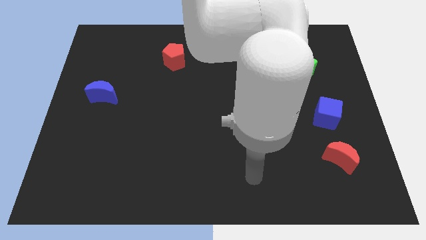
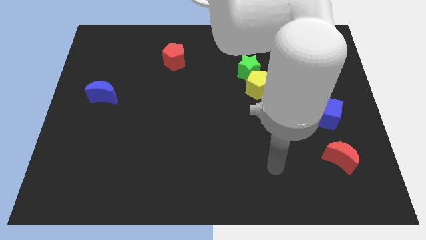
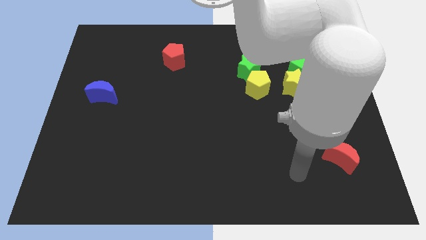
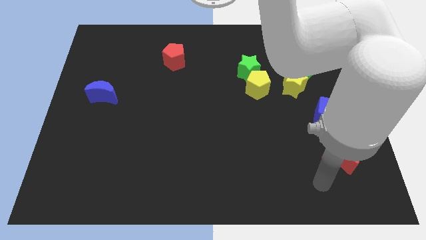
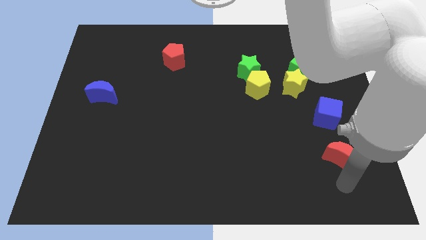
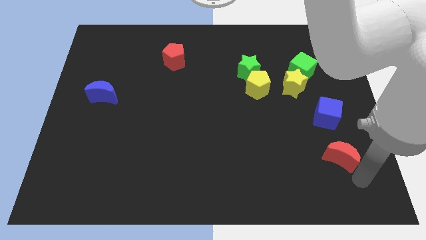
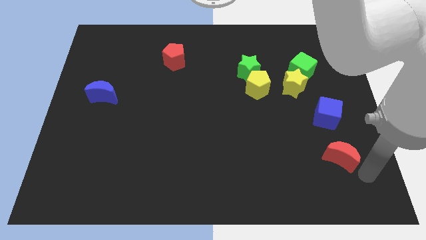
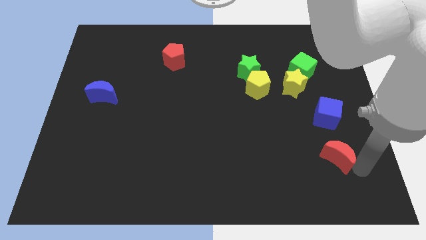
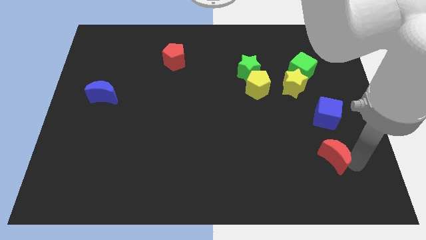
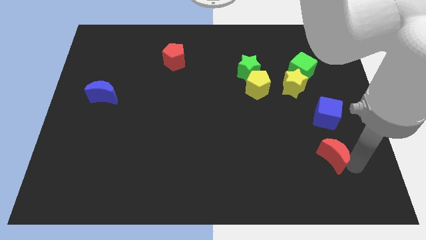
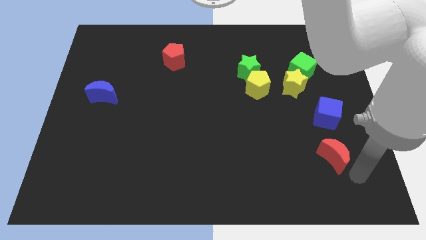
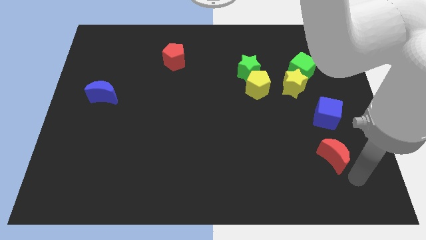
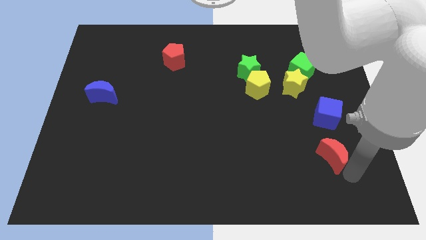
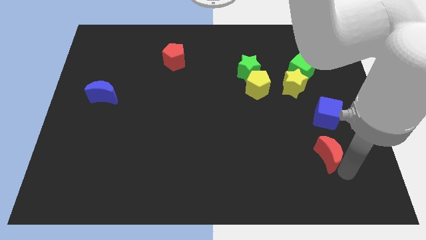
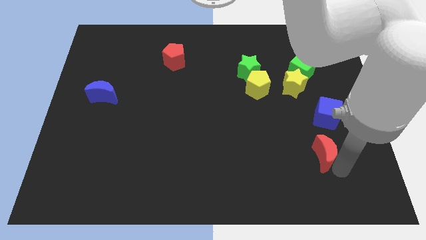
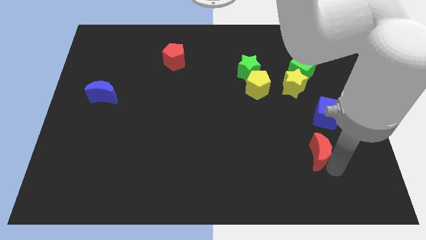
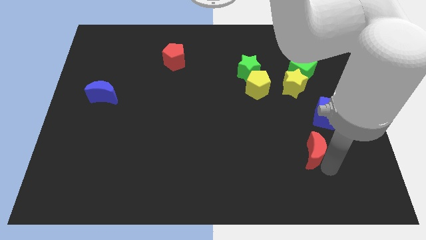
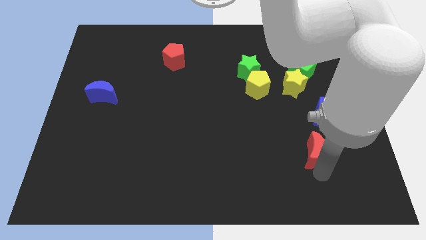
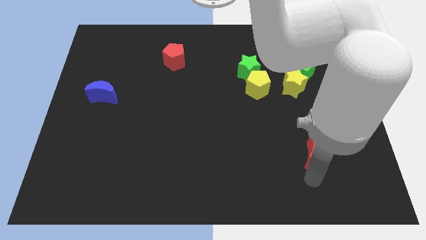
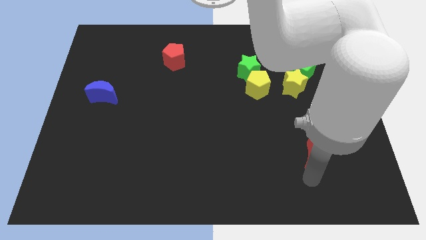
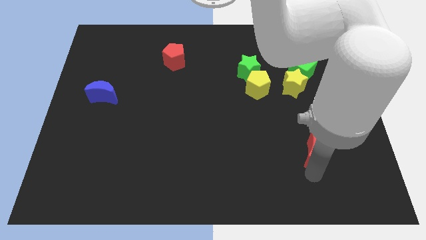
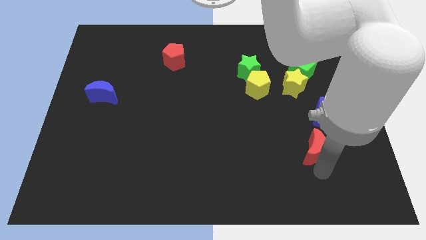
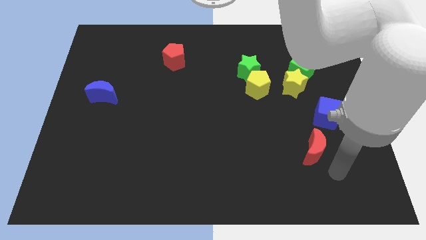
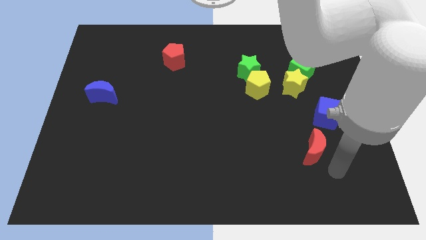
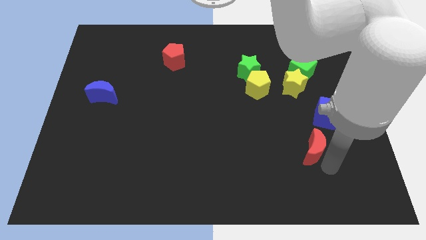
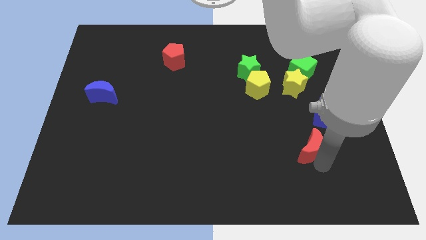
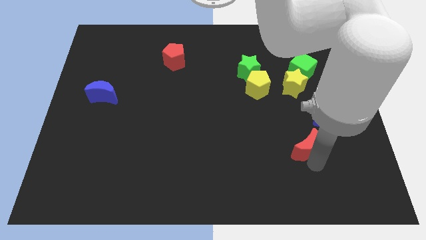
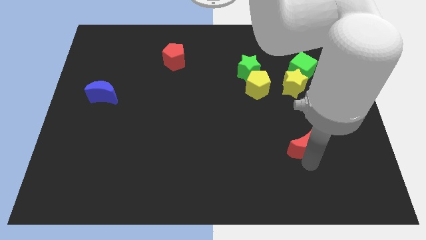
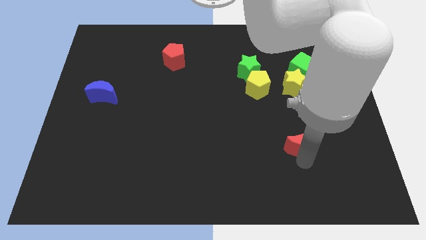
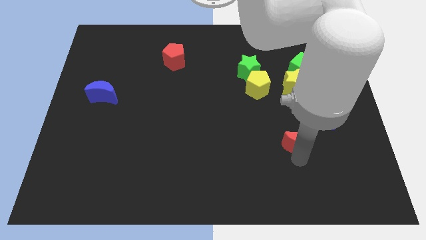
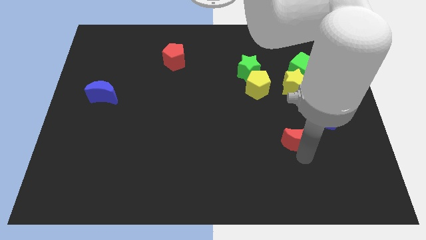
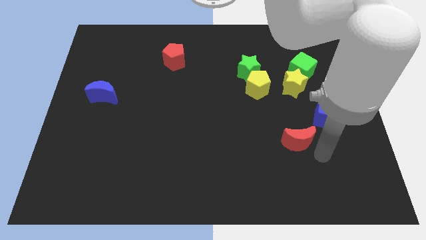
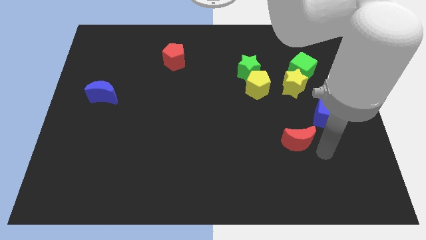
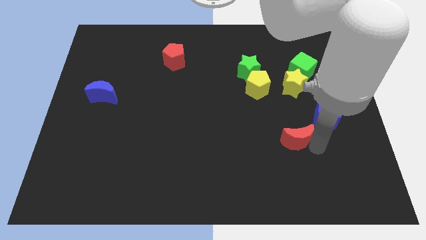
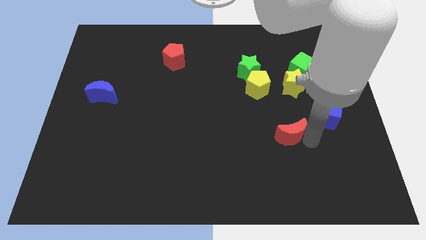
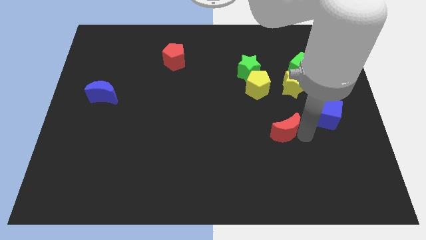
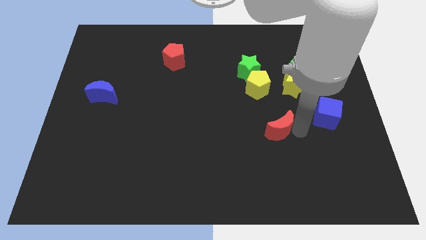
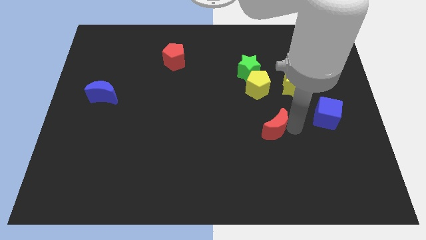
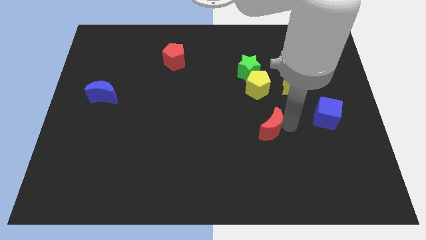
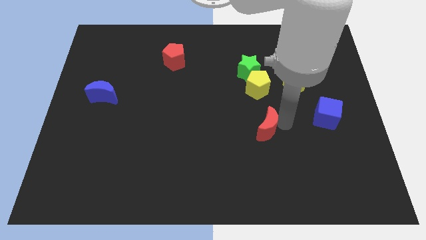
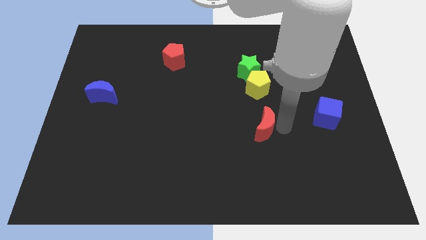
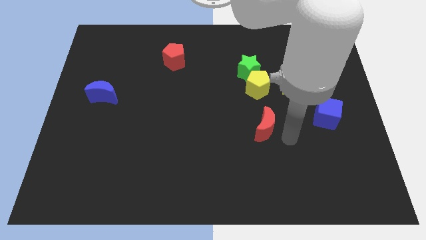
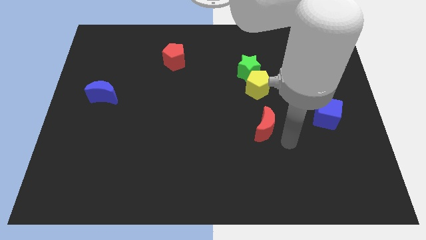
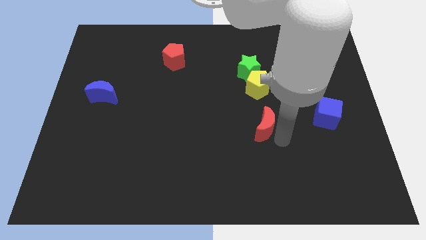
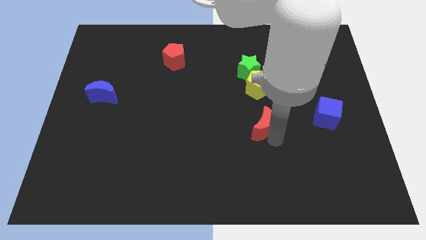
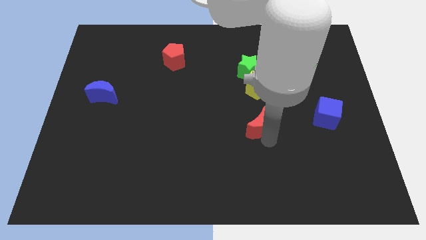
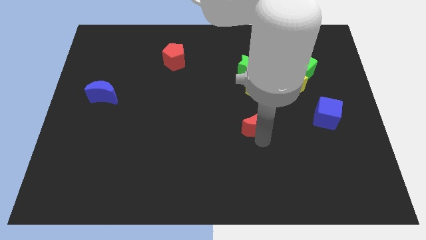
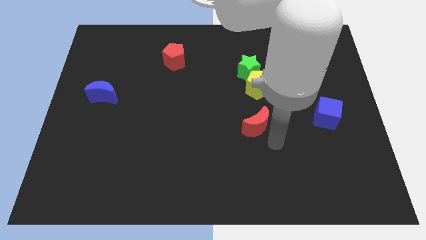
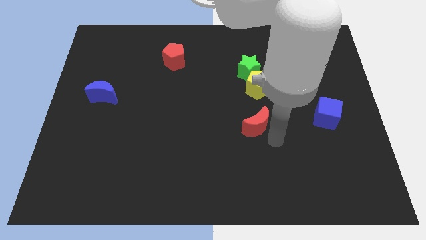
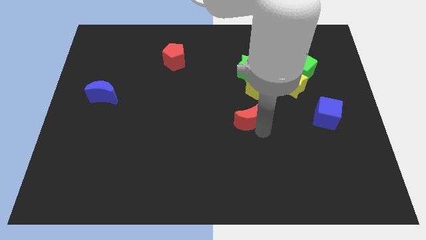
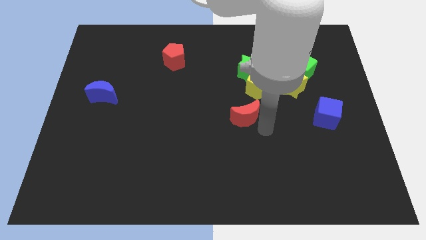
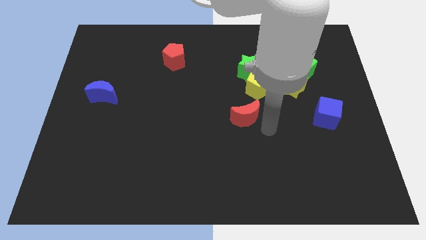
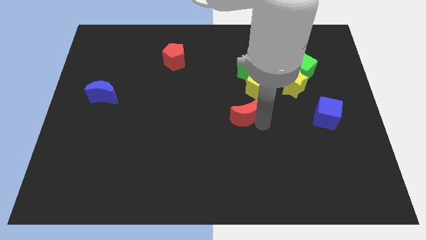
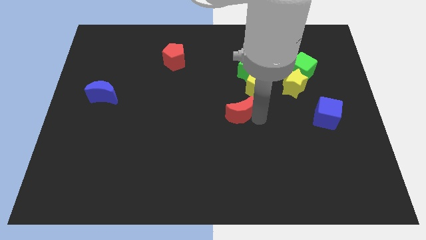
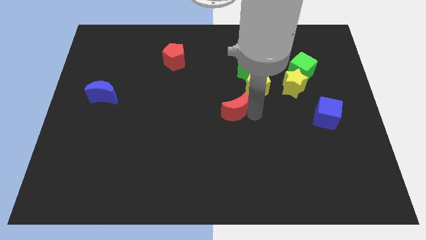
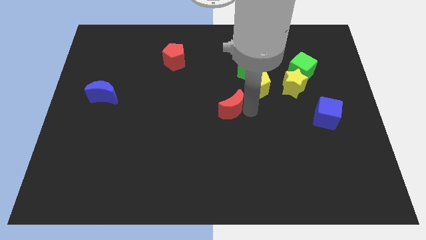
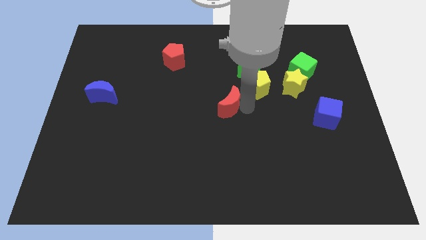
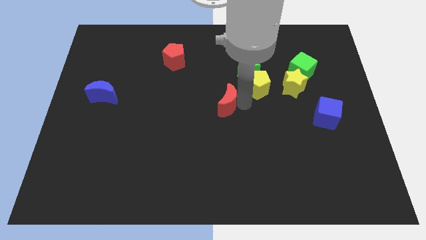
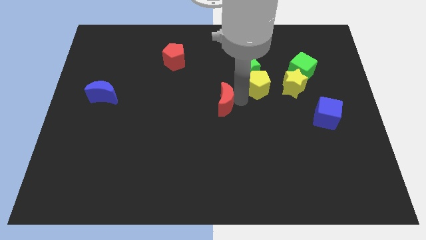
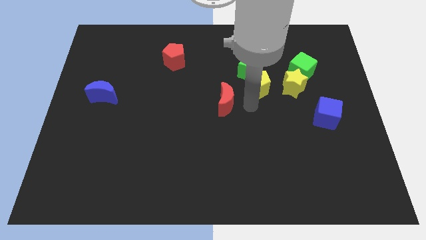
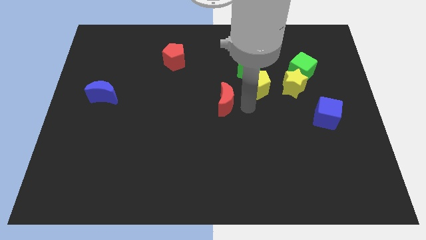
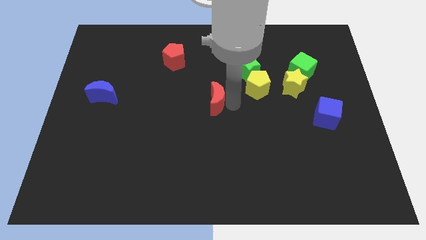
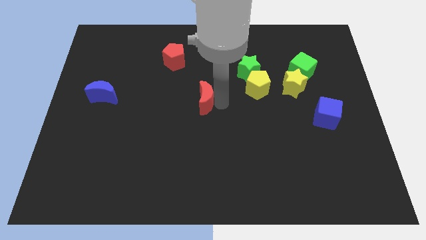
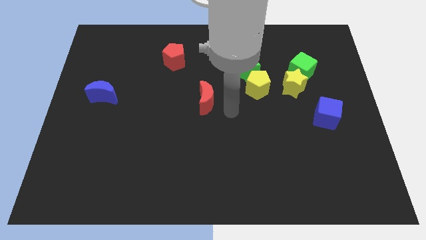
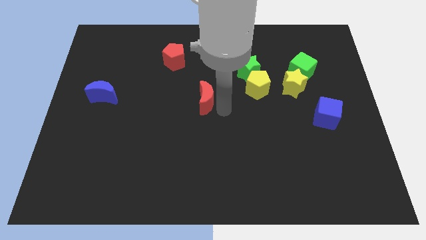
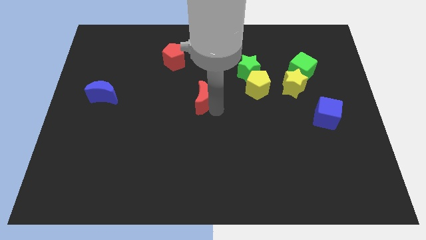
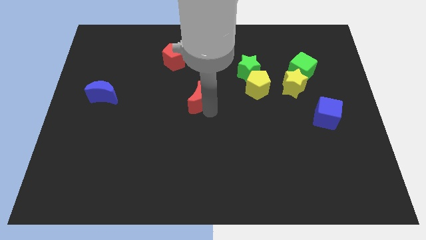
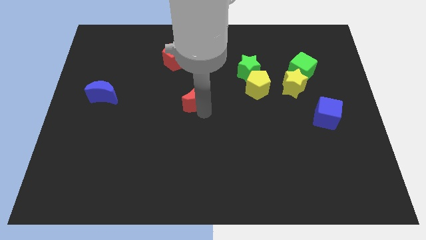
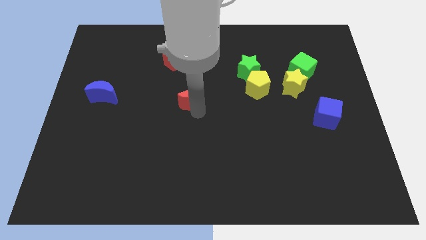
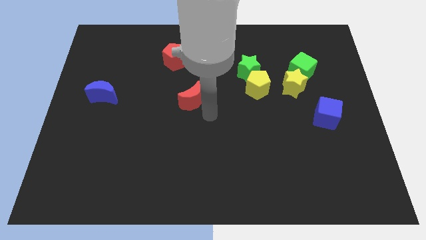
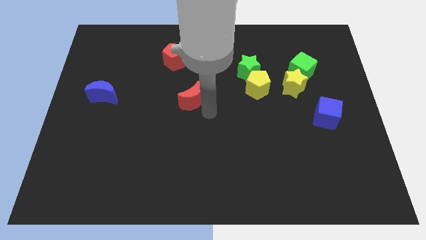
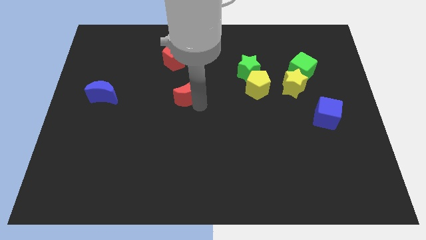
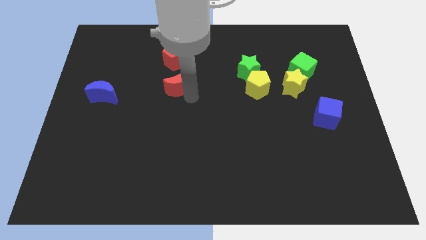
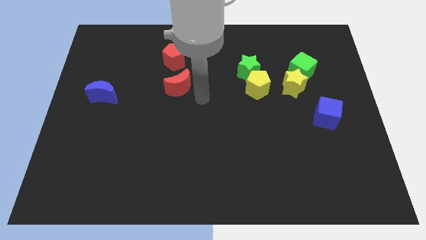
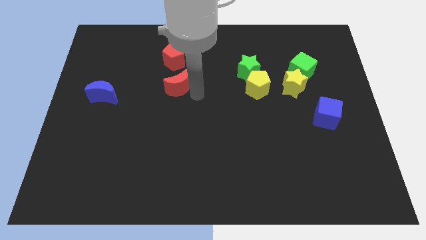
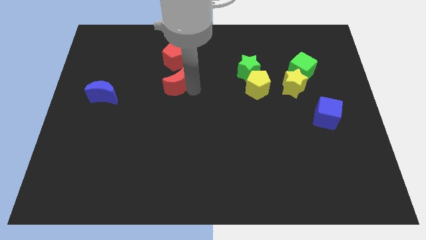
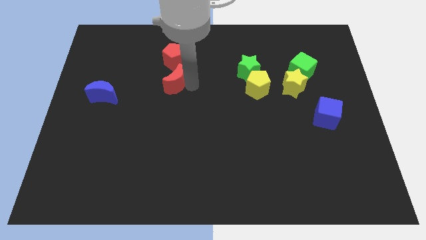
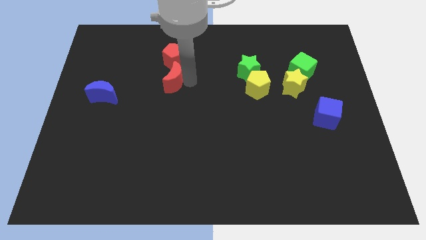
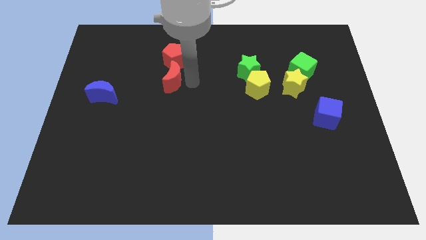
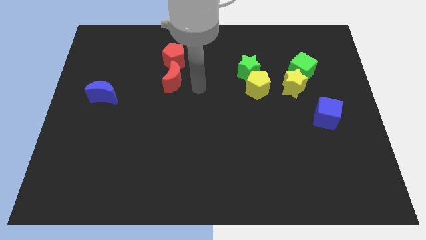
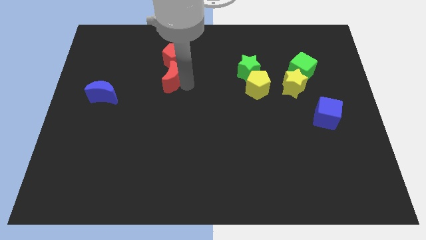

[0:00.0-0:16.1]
push the red moon diagonally down and to the left of the red pentagon
